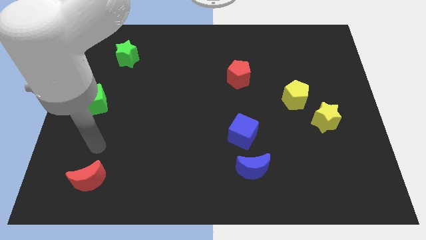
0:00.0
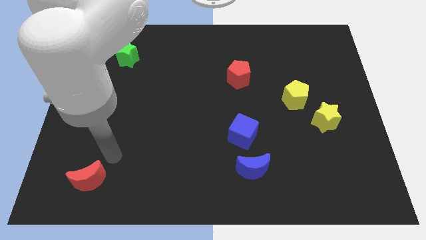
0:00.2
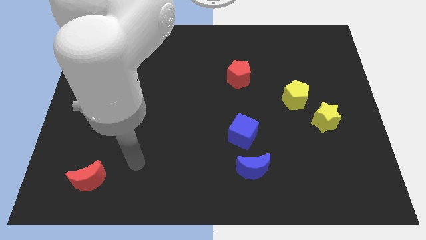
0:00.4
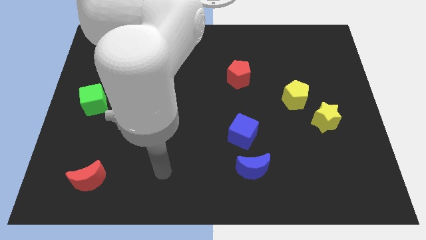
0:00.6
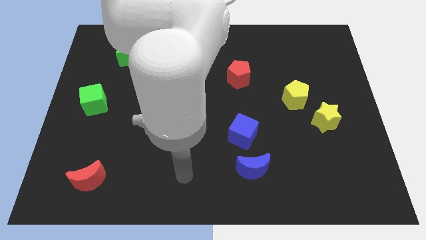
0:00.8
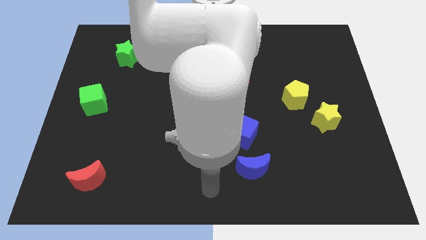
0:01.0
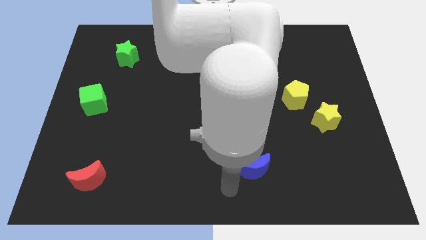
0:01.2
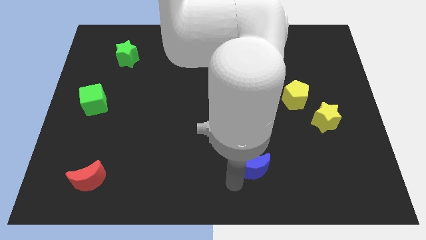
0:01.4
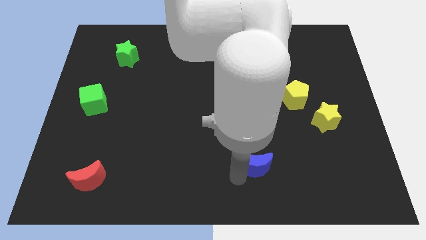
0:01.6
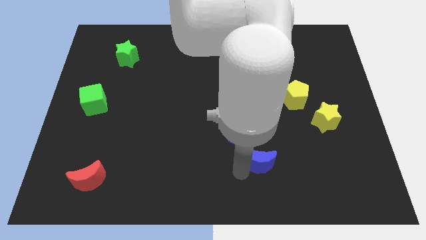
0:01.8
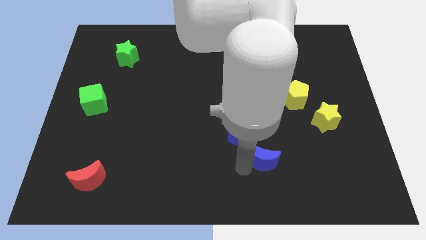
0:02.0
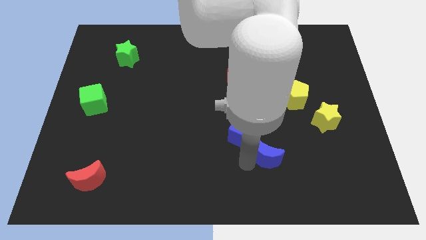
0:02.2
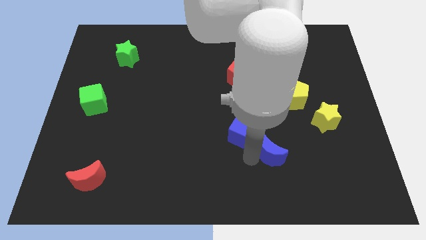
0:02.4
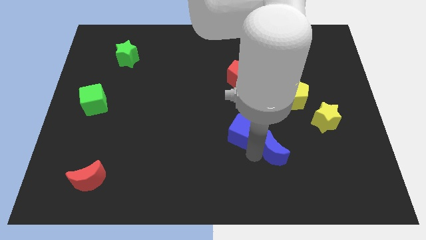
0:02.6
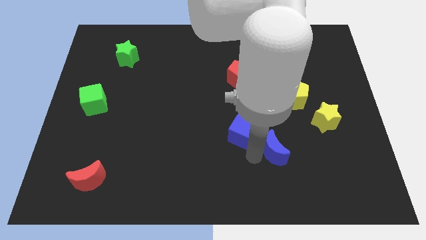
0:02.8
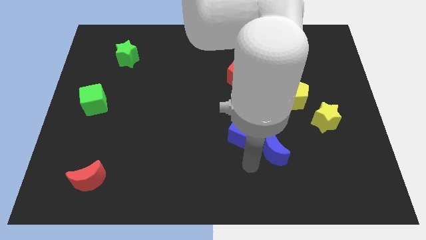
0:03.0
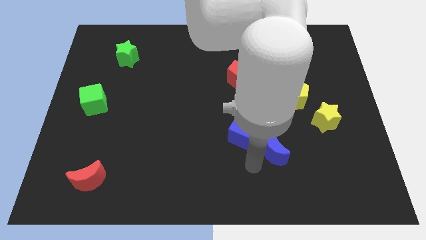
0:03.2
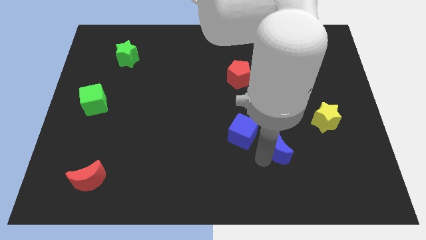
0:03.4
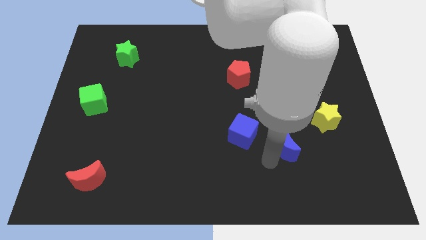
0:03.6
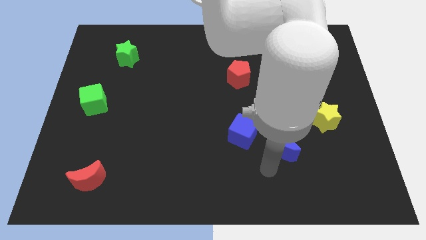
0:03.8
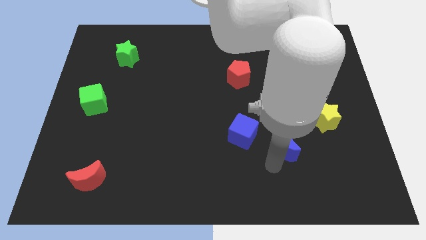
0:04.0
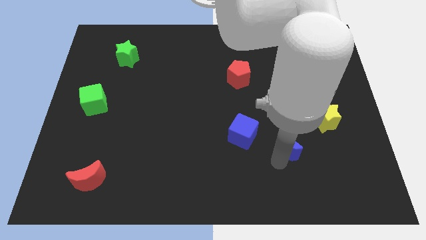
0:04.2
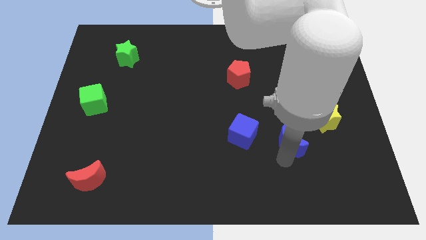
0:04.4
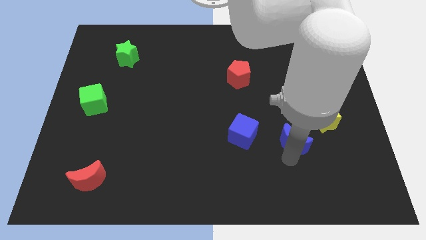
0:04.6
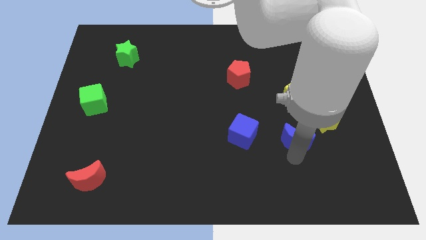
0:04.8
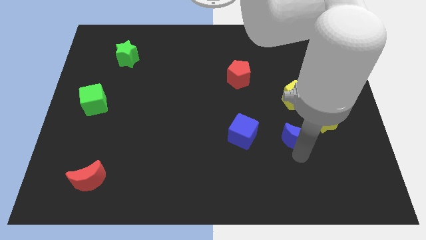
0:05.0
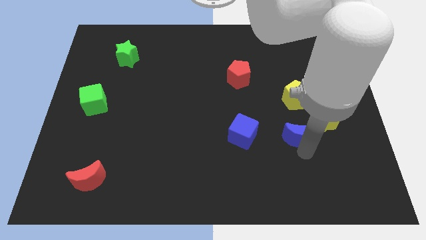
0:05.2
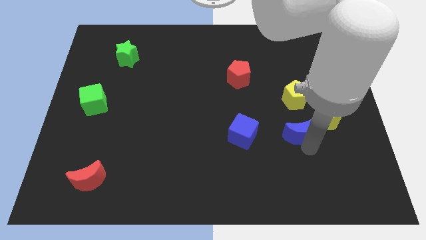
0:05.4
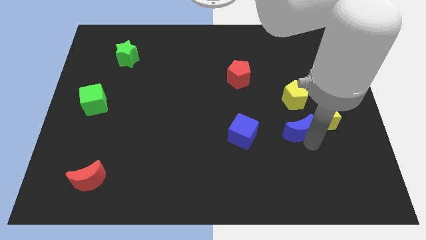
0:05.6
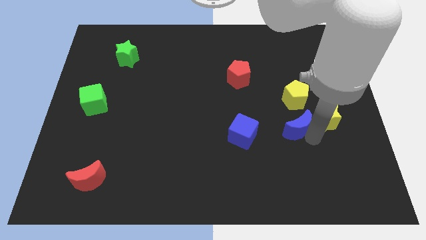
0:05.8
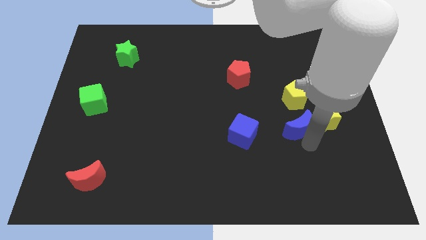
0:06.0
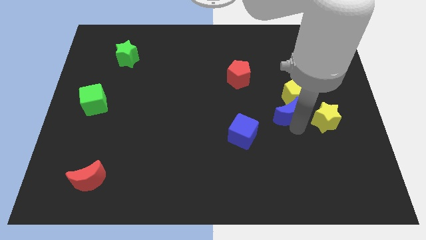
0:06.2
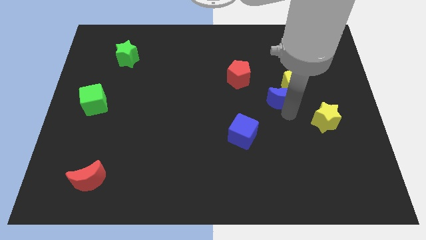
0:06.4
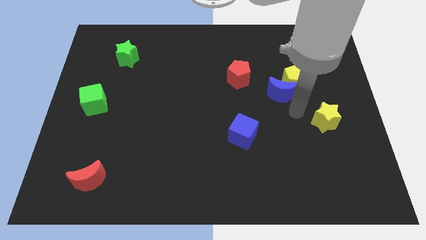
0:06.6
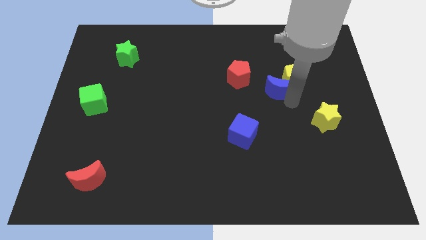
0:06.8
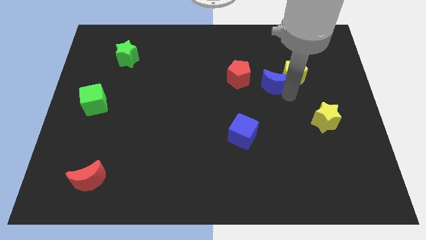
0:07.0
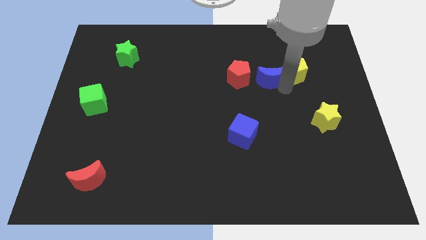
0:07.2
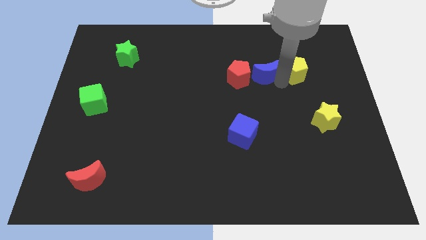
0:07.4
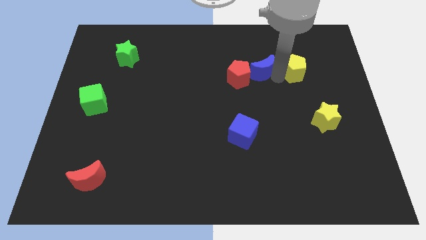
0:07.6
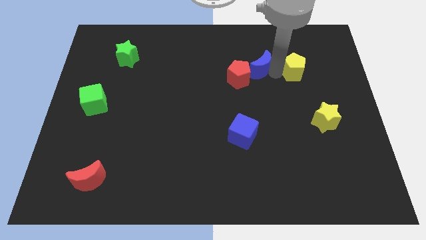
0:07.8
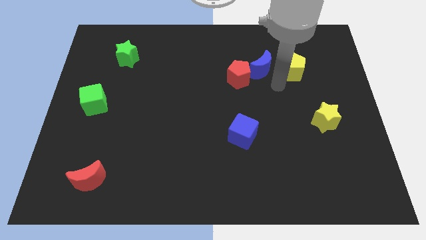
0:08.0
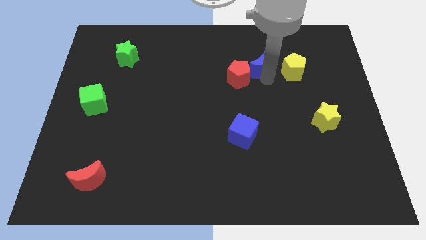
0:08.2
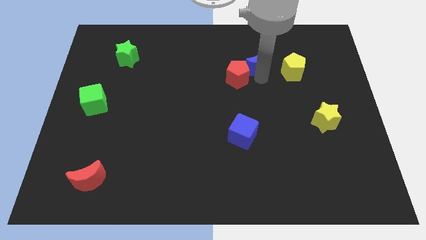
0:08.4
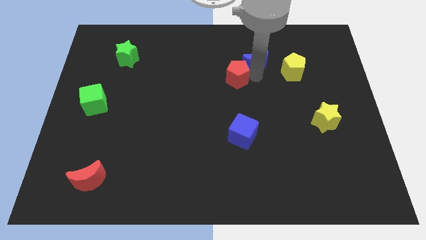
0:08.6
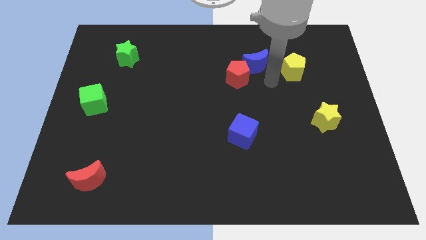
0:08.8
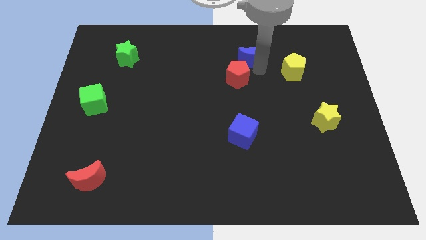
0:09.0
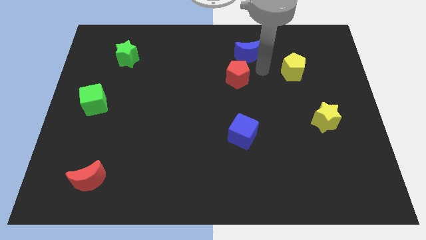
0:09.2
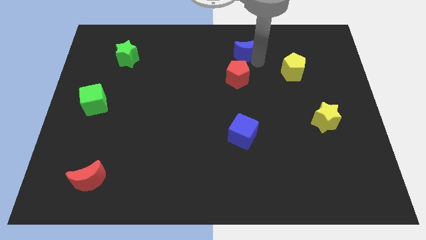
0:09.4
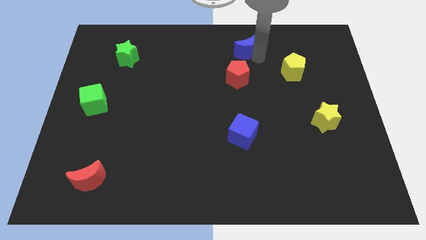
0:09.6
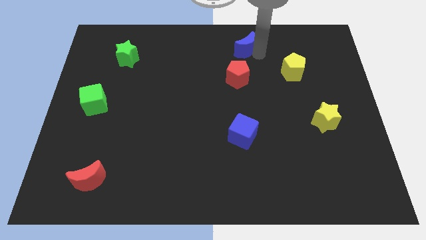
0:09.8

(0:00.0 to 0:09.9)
move the blue moon to the towards your base

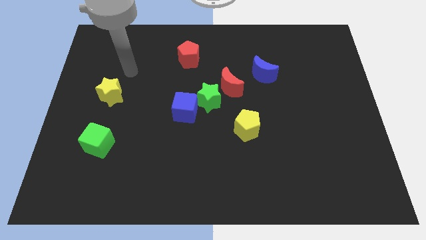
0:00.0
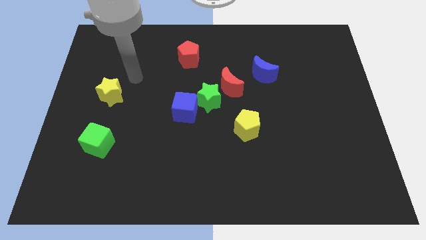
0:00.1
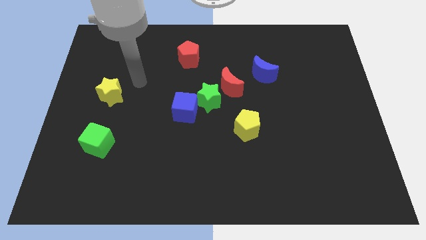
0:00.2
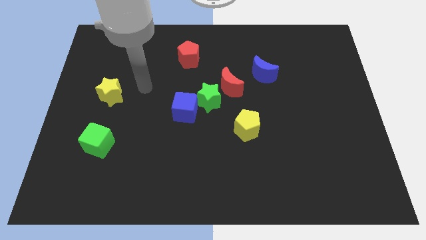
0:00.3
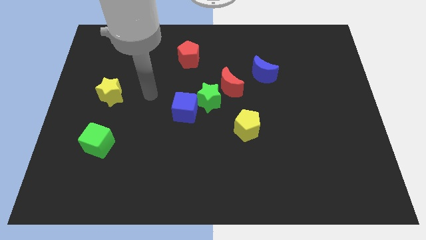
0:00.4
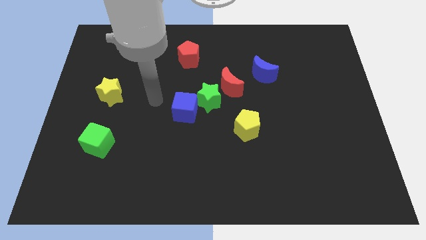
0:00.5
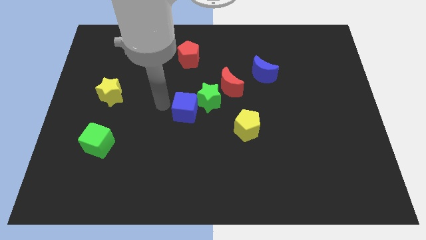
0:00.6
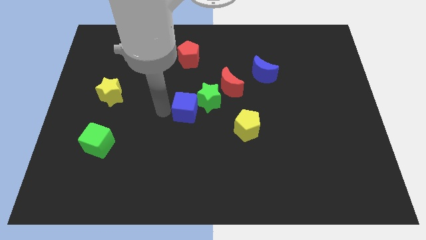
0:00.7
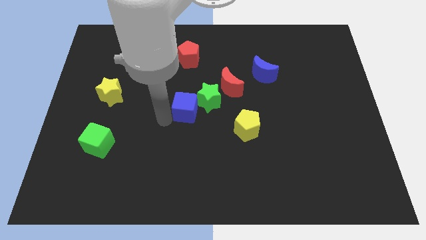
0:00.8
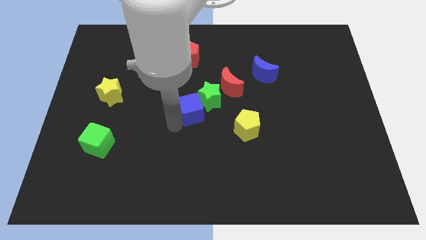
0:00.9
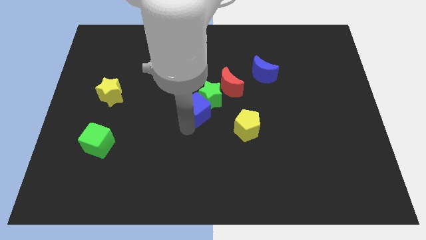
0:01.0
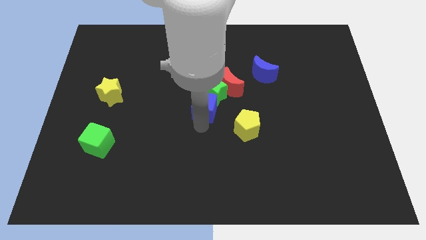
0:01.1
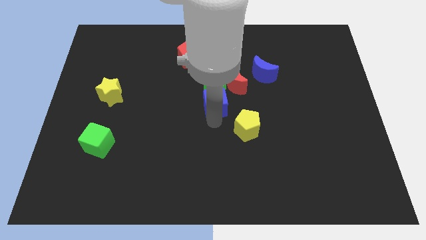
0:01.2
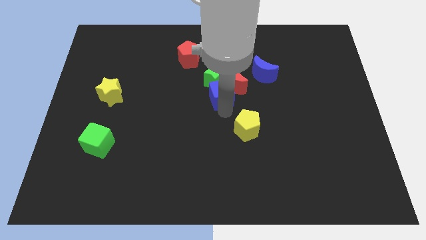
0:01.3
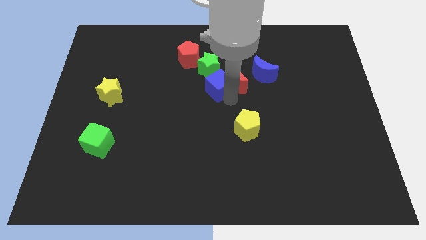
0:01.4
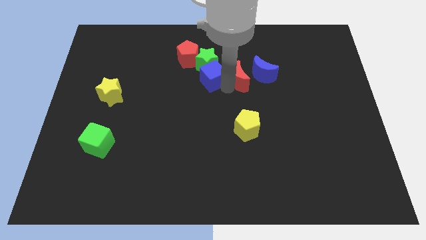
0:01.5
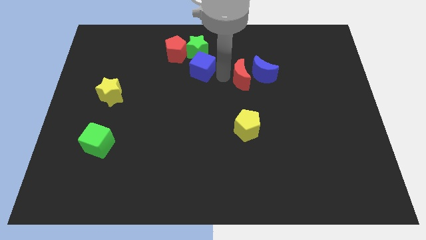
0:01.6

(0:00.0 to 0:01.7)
move the green star to the towards your base

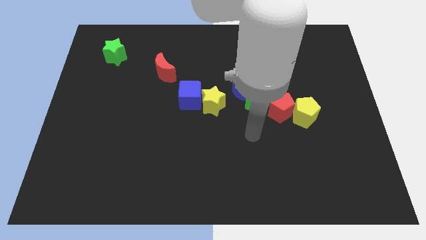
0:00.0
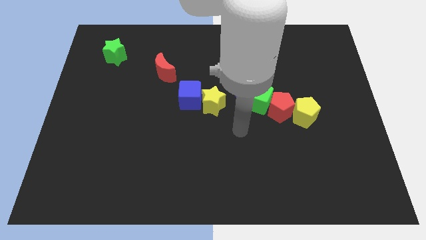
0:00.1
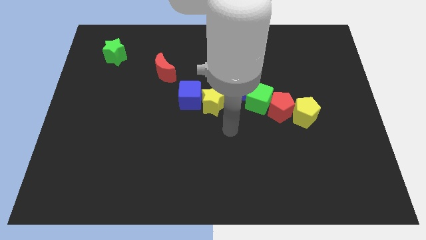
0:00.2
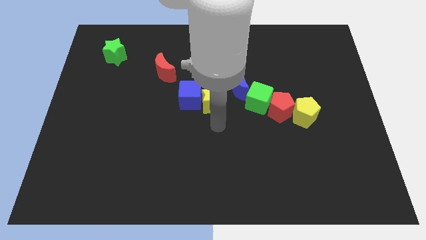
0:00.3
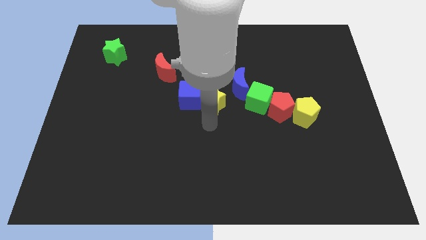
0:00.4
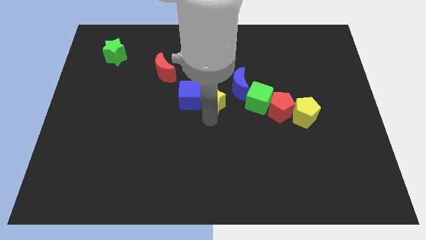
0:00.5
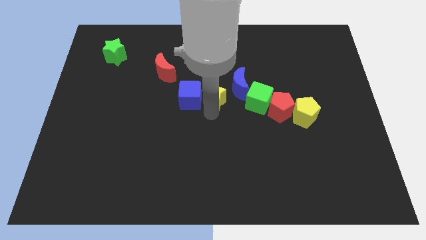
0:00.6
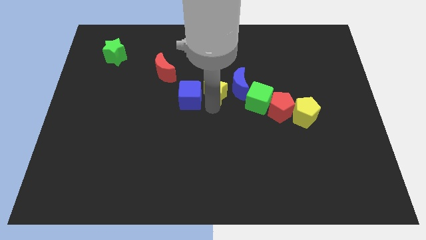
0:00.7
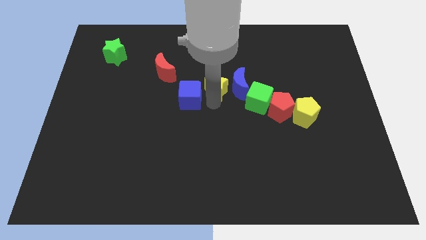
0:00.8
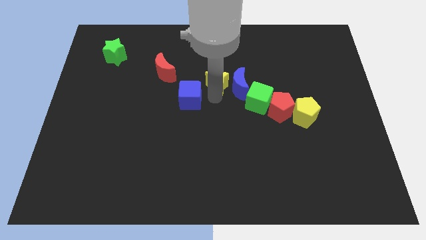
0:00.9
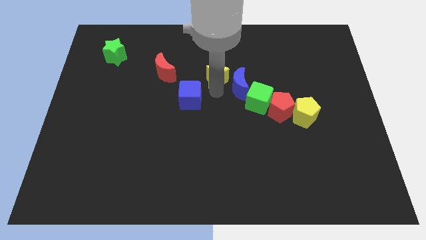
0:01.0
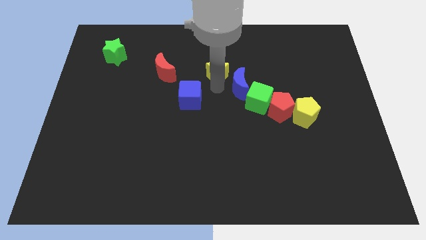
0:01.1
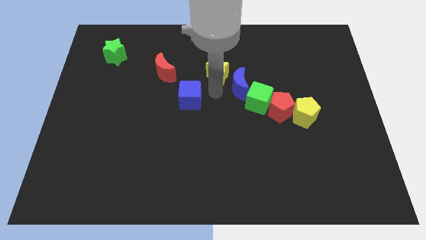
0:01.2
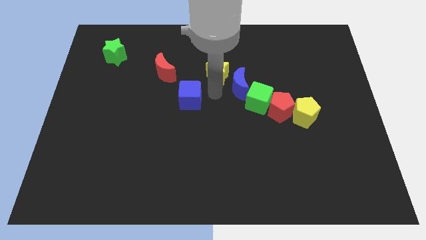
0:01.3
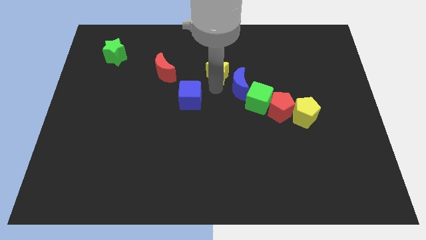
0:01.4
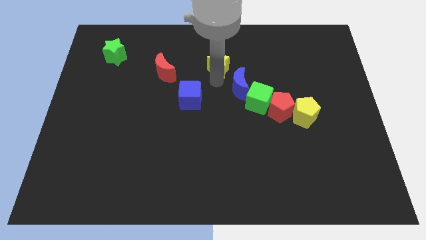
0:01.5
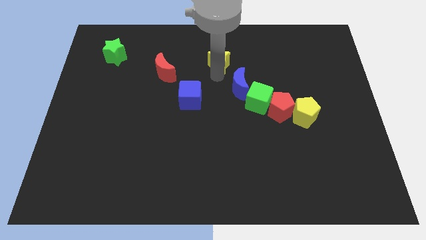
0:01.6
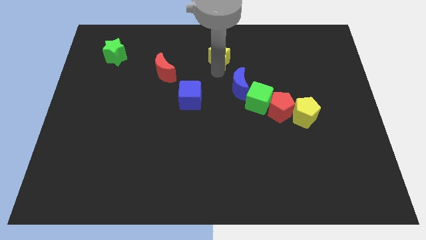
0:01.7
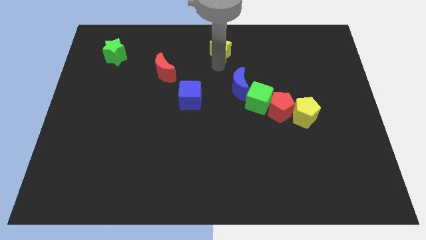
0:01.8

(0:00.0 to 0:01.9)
move the yellow star to the top side
